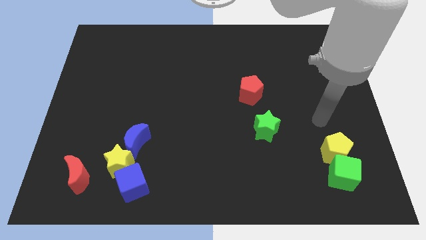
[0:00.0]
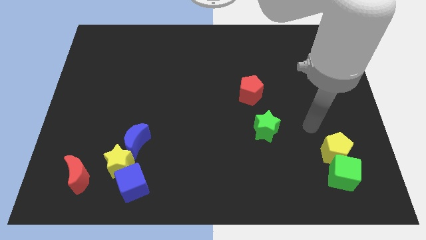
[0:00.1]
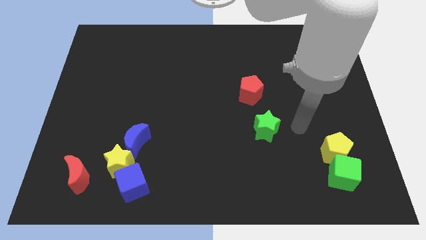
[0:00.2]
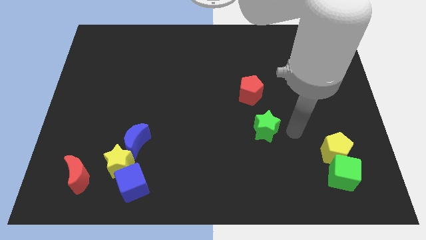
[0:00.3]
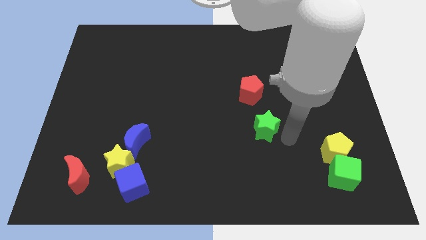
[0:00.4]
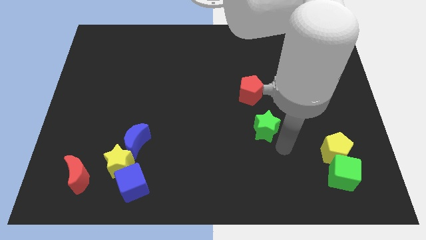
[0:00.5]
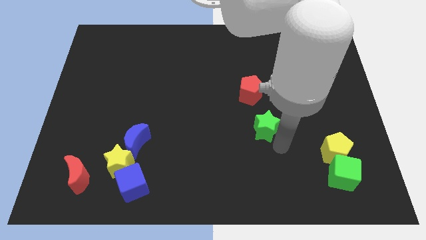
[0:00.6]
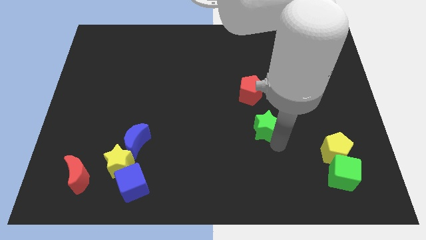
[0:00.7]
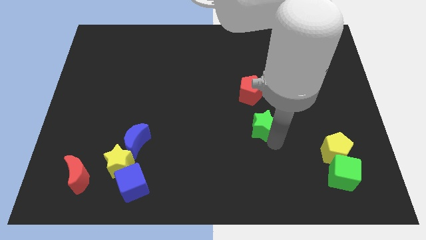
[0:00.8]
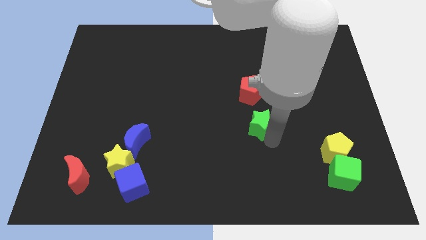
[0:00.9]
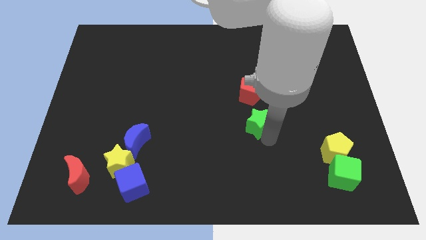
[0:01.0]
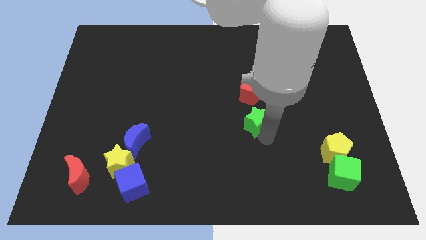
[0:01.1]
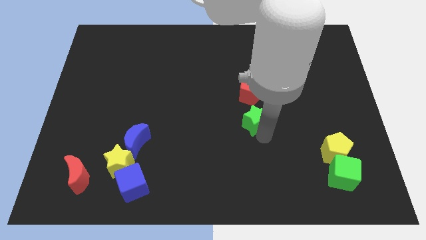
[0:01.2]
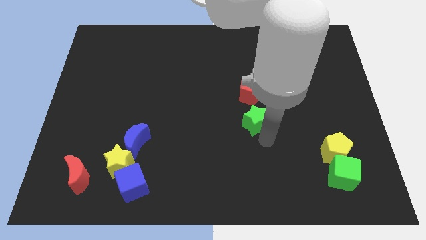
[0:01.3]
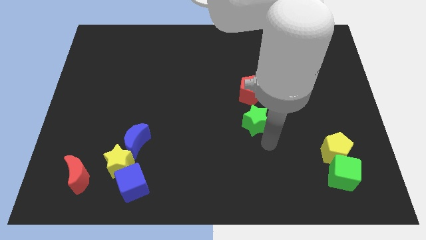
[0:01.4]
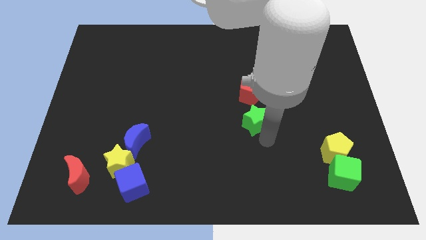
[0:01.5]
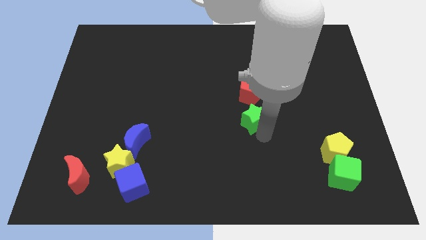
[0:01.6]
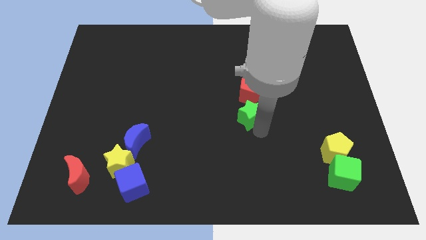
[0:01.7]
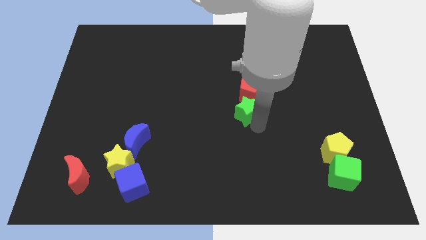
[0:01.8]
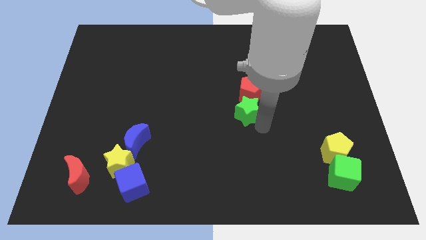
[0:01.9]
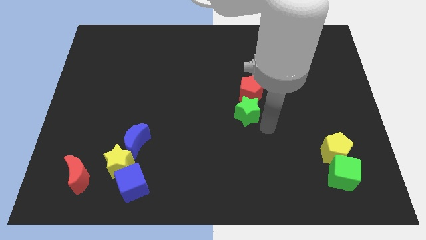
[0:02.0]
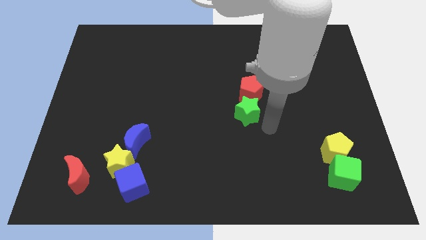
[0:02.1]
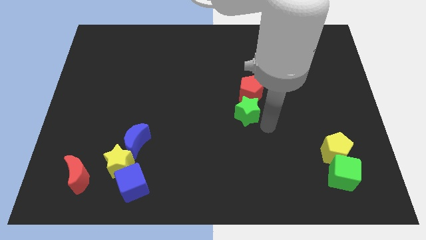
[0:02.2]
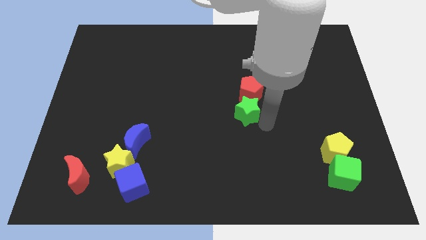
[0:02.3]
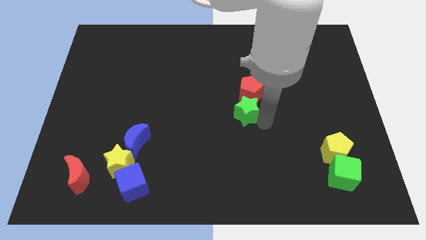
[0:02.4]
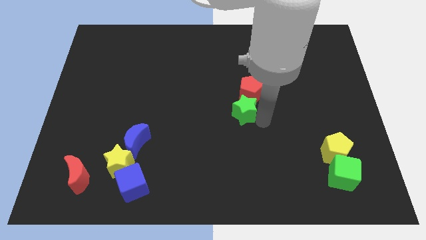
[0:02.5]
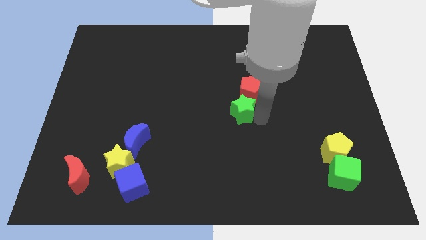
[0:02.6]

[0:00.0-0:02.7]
move the green star somewhat upwards and left

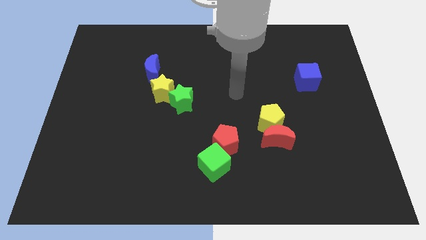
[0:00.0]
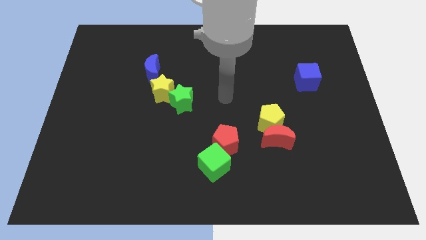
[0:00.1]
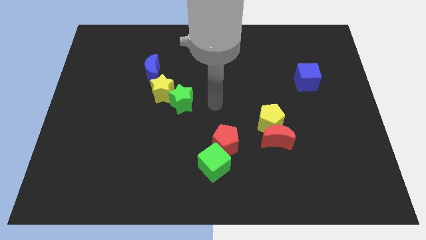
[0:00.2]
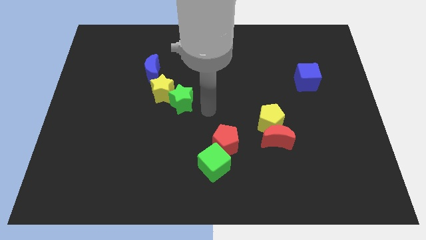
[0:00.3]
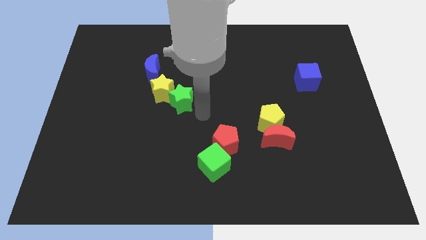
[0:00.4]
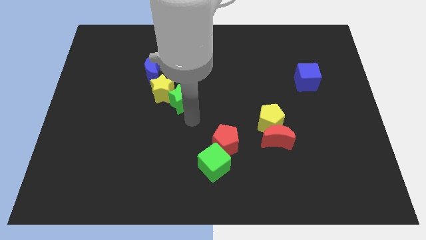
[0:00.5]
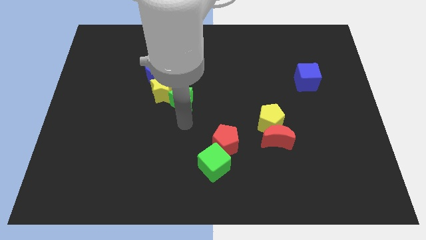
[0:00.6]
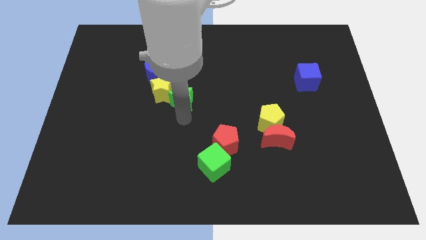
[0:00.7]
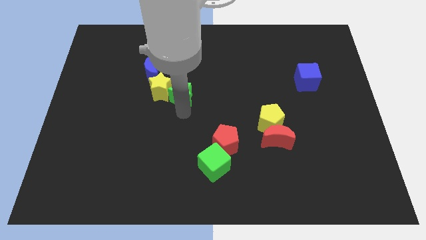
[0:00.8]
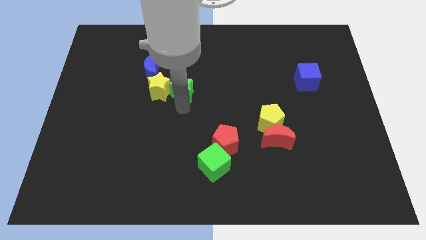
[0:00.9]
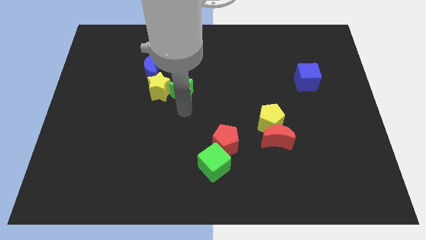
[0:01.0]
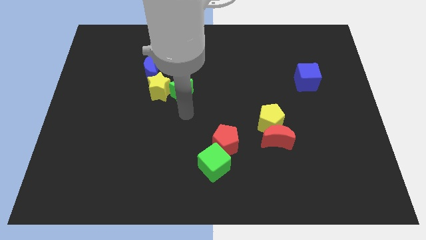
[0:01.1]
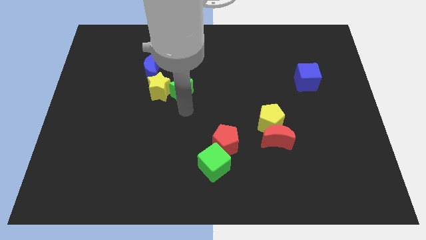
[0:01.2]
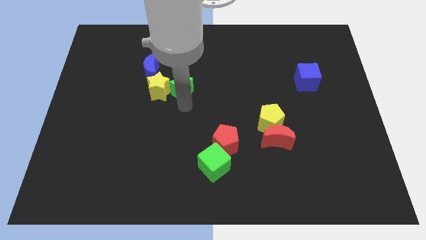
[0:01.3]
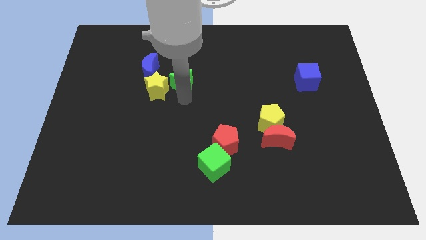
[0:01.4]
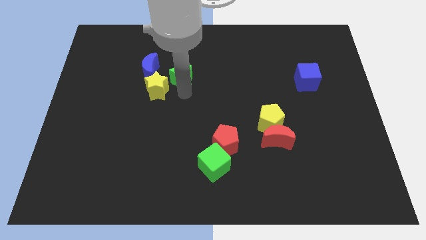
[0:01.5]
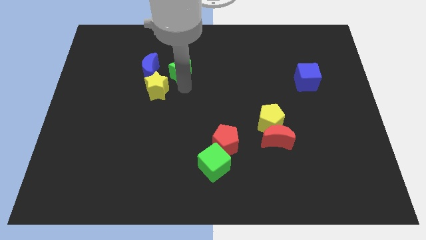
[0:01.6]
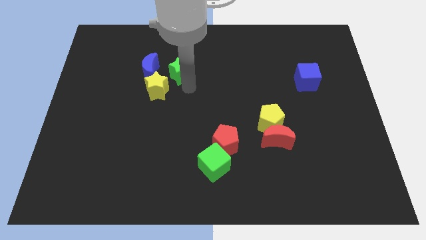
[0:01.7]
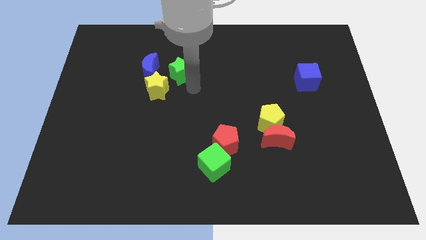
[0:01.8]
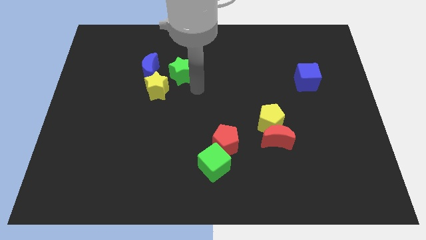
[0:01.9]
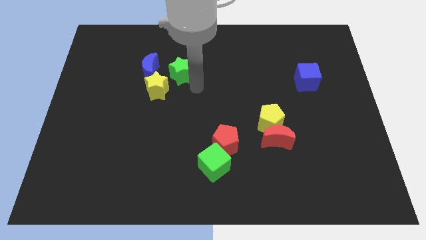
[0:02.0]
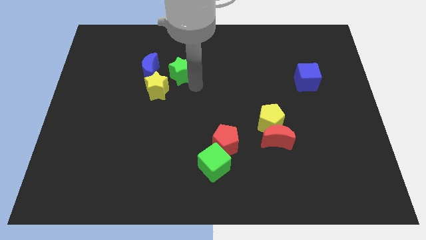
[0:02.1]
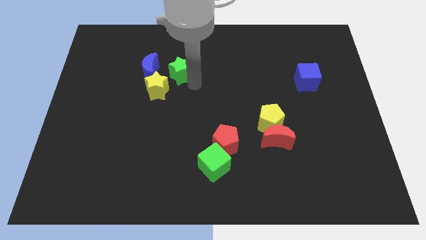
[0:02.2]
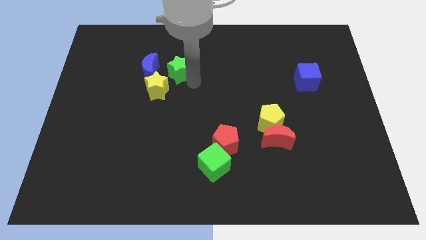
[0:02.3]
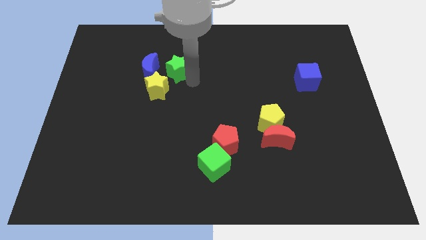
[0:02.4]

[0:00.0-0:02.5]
push the green star a bit diagonally up and left

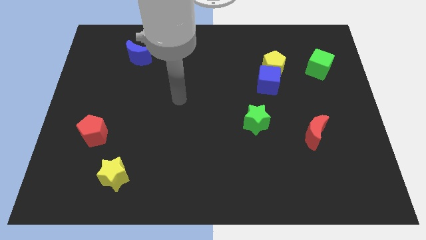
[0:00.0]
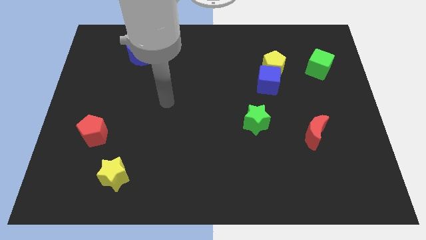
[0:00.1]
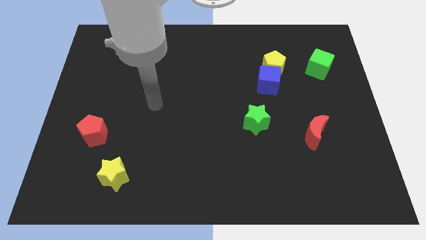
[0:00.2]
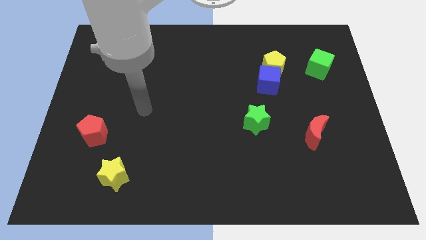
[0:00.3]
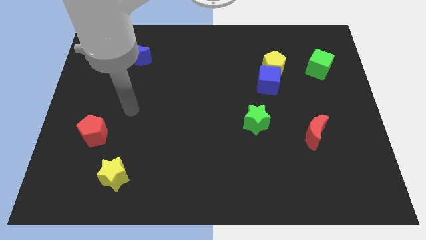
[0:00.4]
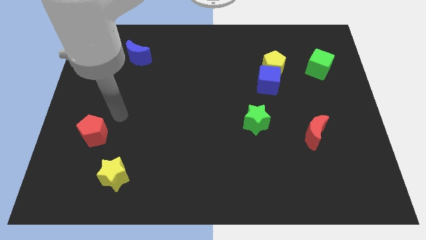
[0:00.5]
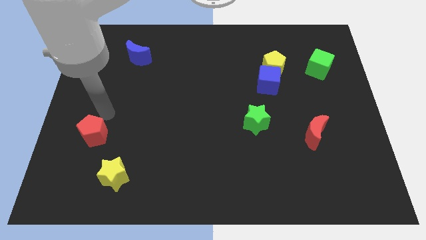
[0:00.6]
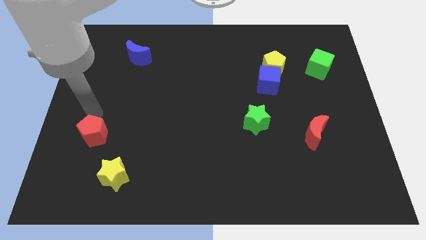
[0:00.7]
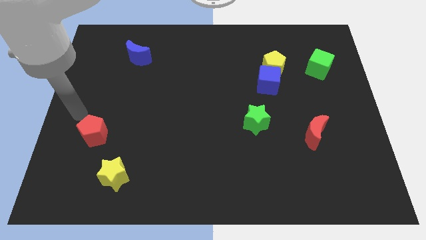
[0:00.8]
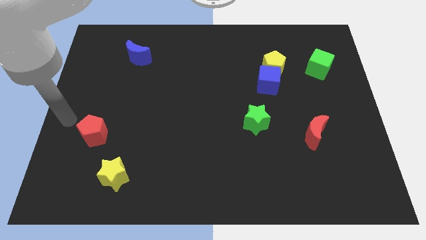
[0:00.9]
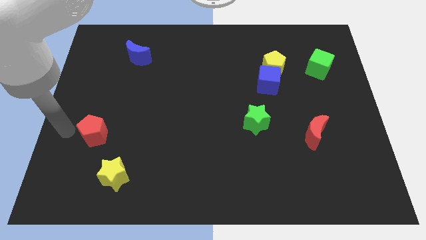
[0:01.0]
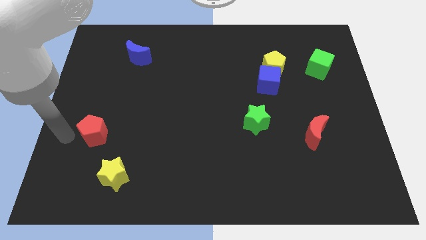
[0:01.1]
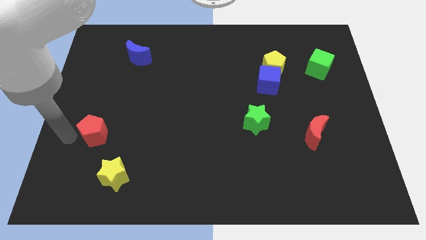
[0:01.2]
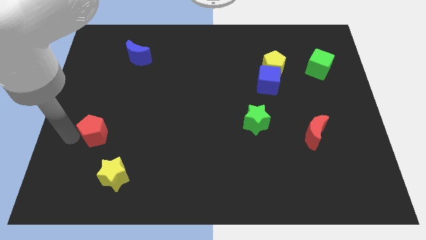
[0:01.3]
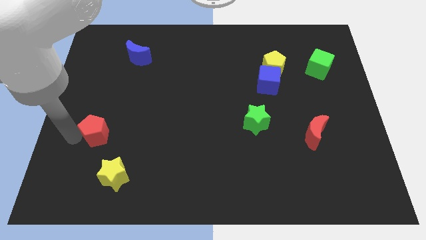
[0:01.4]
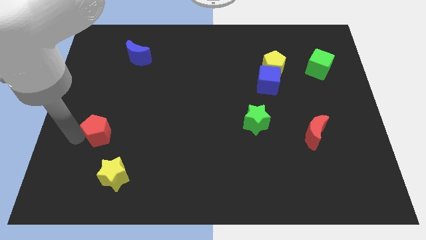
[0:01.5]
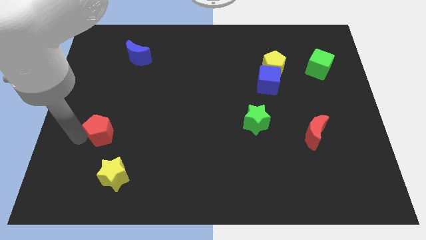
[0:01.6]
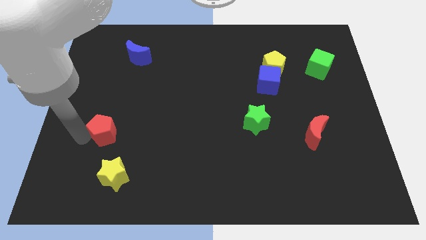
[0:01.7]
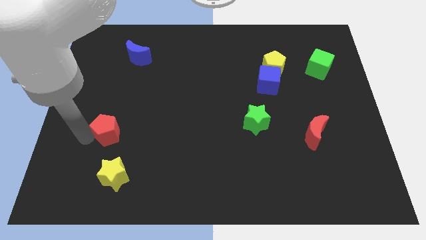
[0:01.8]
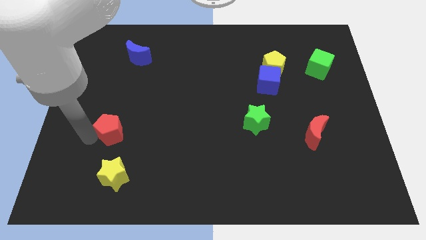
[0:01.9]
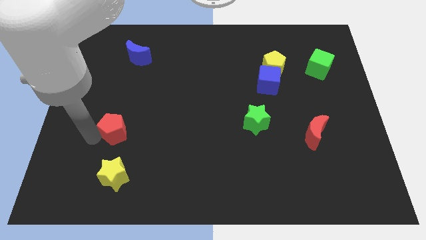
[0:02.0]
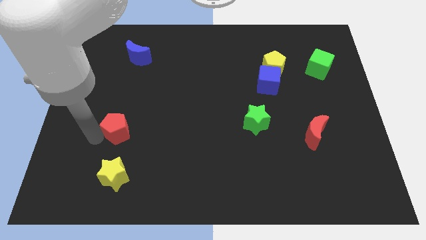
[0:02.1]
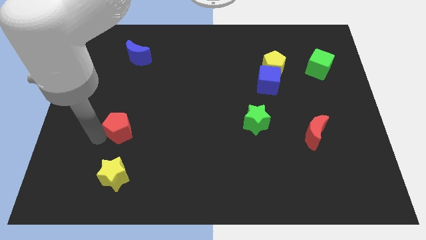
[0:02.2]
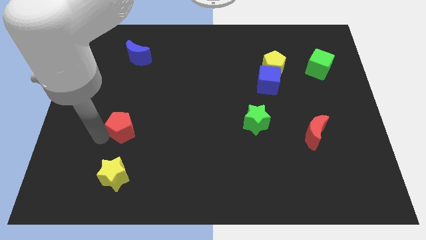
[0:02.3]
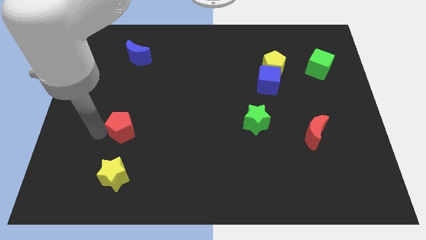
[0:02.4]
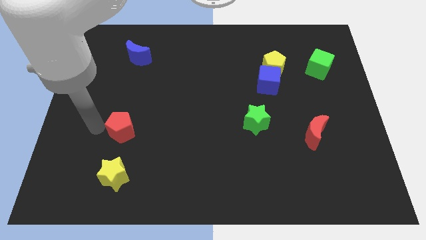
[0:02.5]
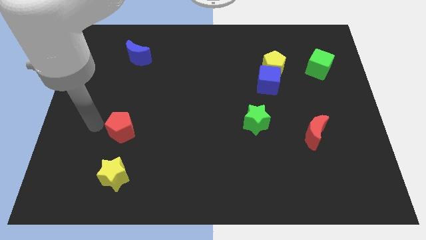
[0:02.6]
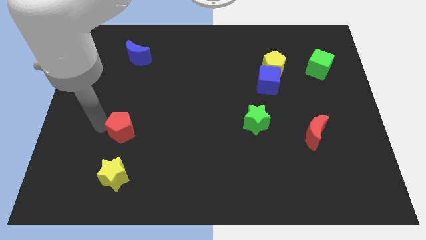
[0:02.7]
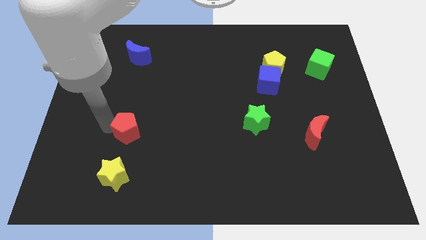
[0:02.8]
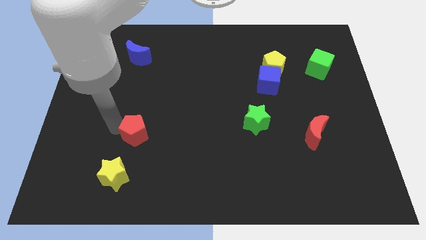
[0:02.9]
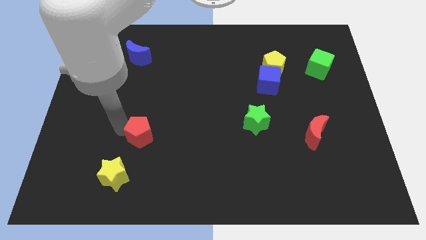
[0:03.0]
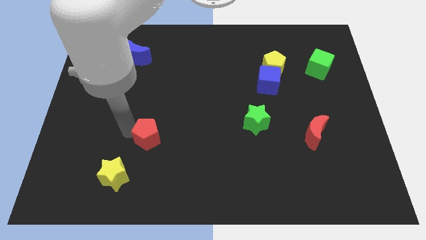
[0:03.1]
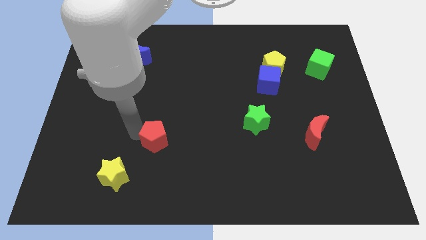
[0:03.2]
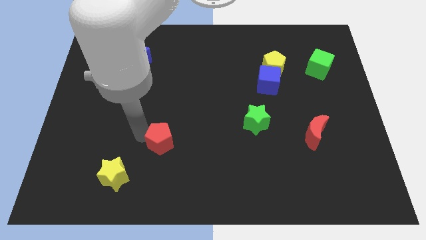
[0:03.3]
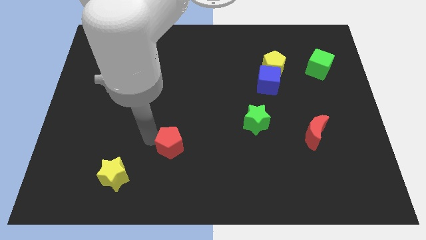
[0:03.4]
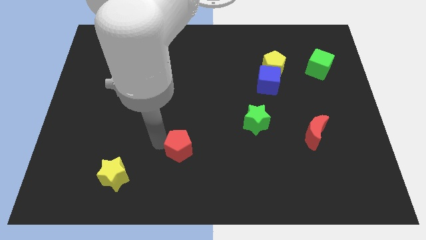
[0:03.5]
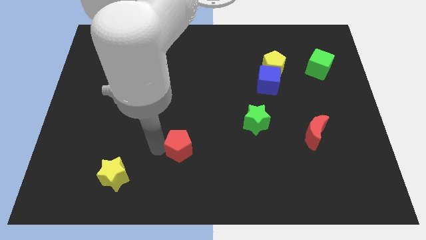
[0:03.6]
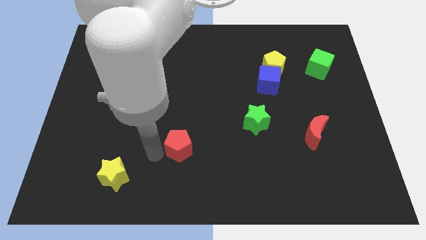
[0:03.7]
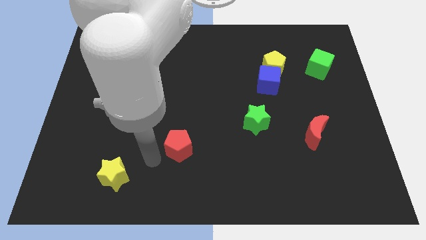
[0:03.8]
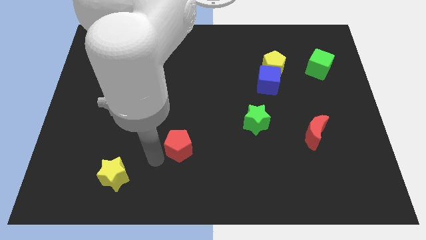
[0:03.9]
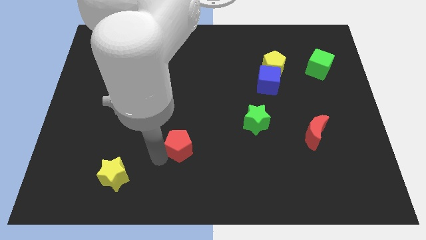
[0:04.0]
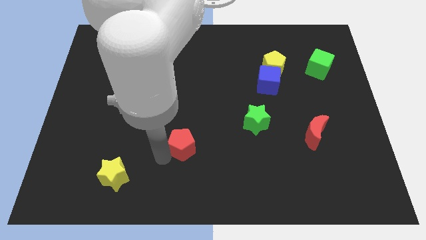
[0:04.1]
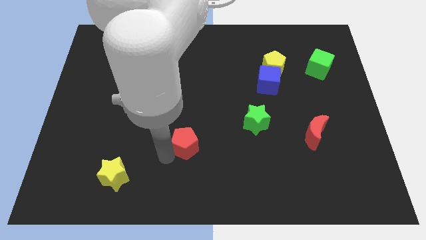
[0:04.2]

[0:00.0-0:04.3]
push the red pentagon to the right
